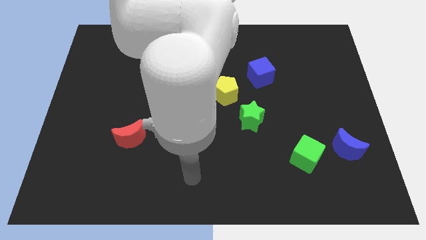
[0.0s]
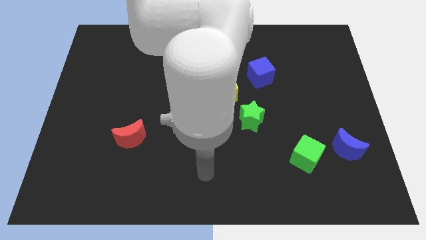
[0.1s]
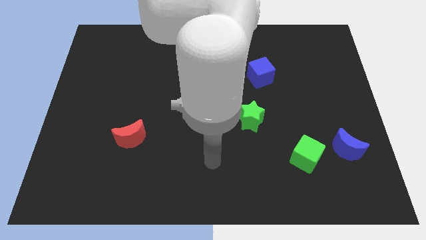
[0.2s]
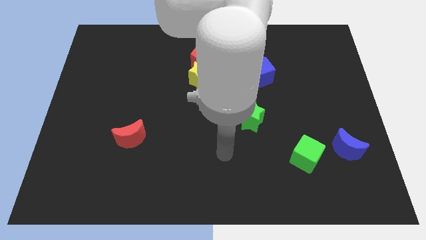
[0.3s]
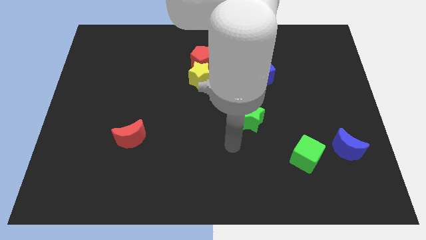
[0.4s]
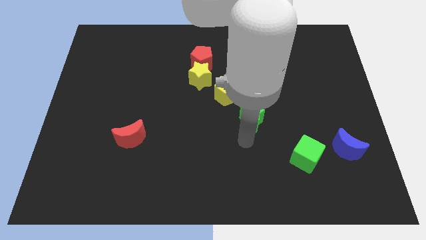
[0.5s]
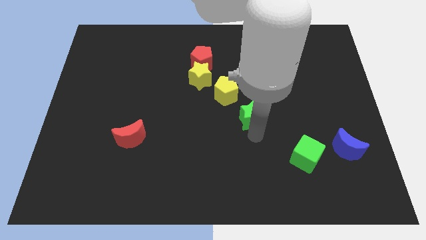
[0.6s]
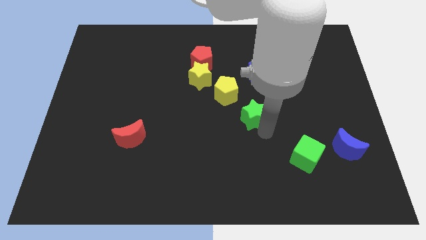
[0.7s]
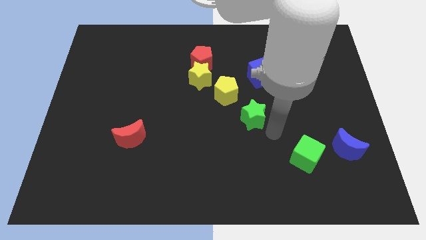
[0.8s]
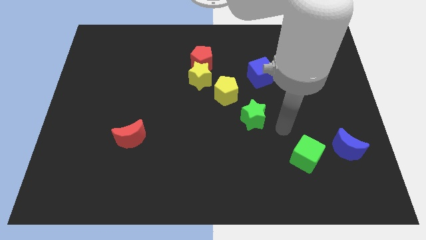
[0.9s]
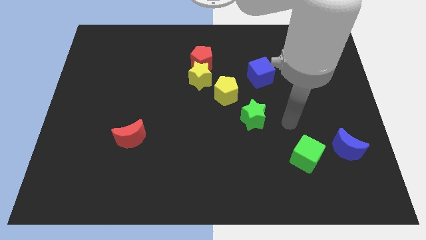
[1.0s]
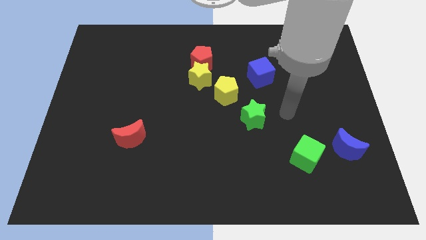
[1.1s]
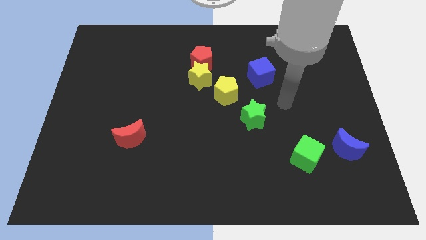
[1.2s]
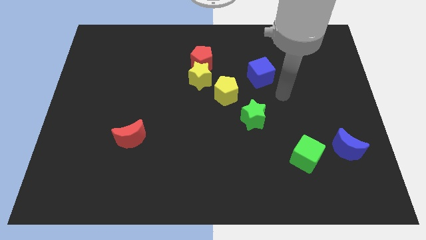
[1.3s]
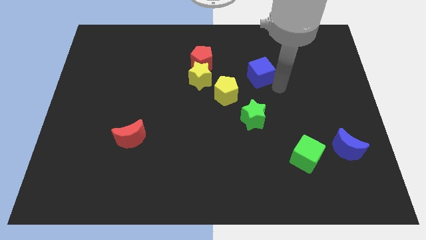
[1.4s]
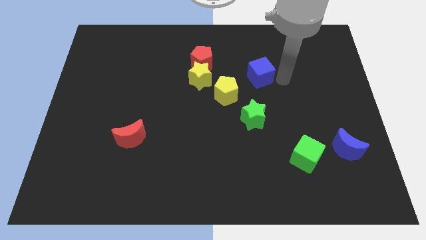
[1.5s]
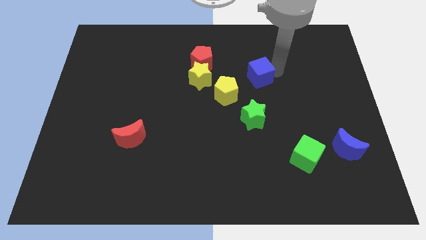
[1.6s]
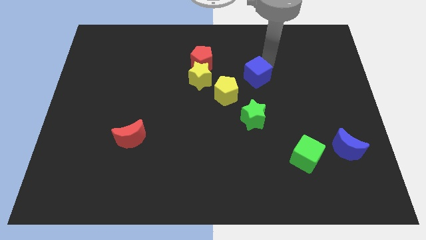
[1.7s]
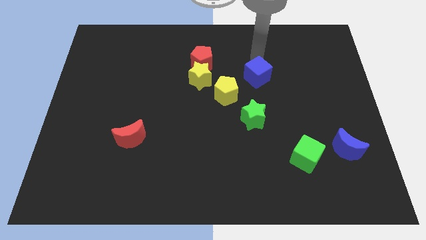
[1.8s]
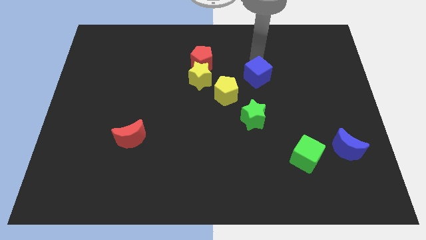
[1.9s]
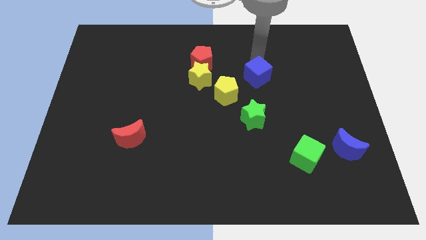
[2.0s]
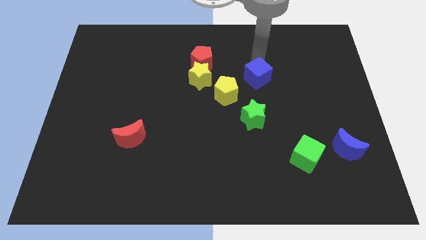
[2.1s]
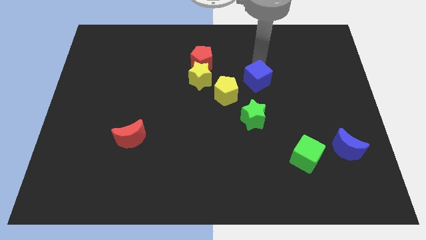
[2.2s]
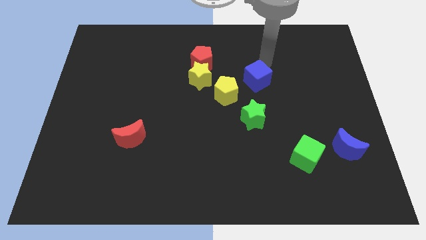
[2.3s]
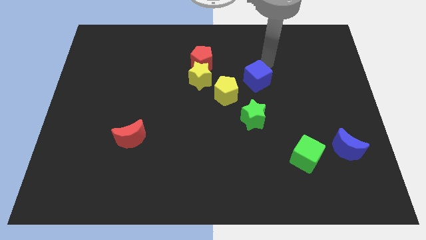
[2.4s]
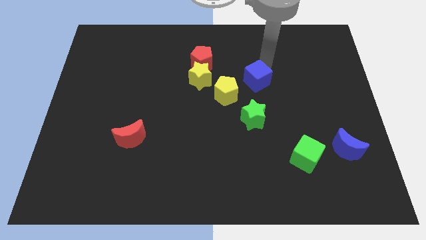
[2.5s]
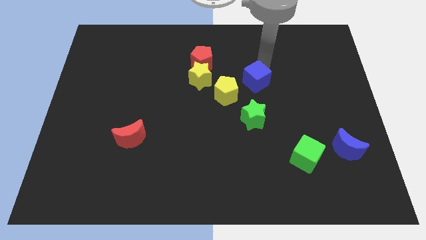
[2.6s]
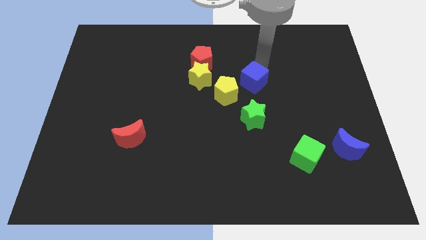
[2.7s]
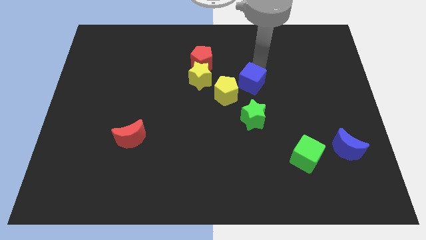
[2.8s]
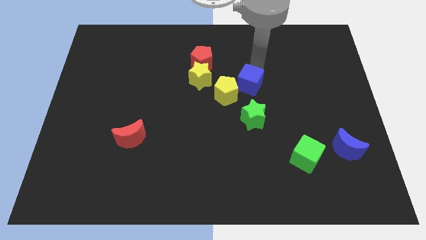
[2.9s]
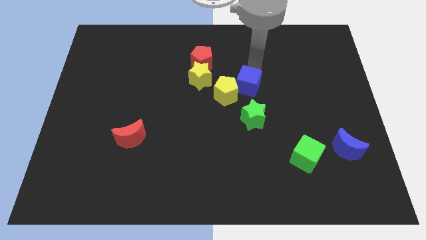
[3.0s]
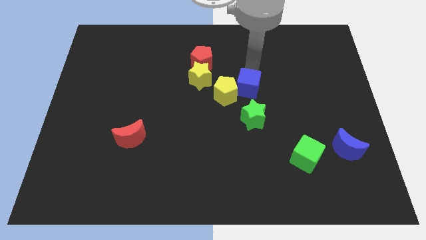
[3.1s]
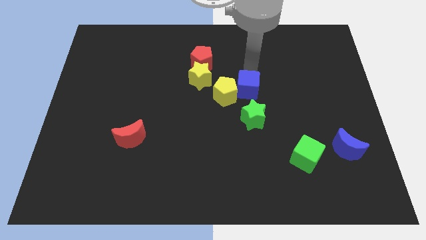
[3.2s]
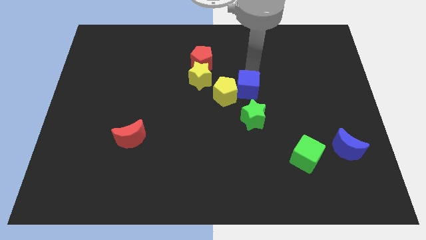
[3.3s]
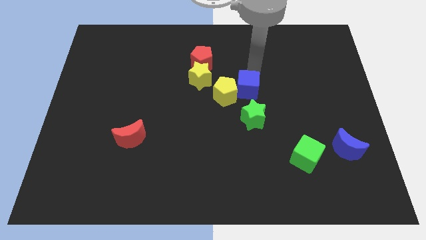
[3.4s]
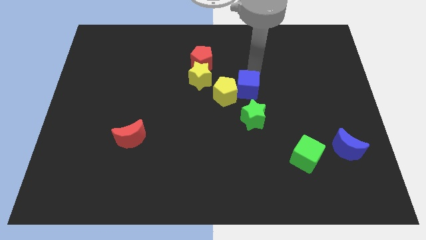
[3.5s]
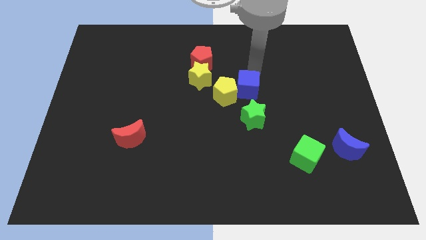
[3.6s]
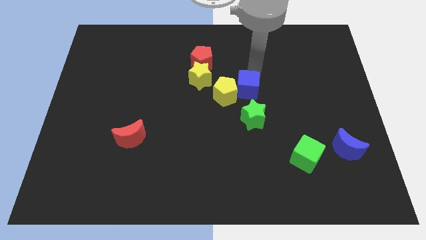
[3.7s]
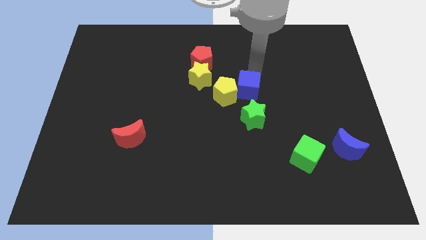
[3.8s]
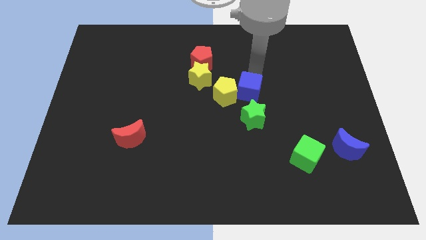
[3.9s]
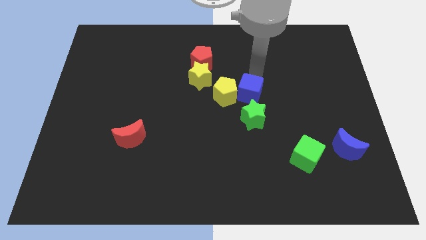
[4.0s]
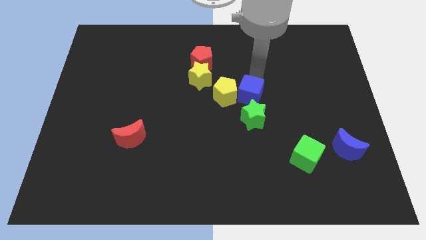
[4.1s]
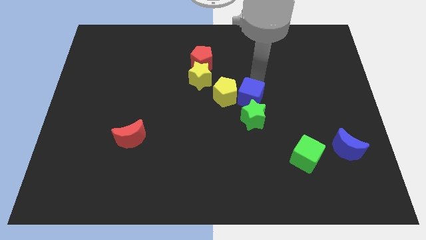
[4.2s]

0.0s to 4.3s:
slightly push the blue cube diagonally downwards and to the left

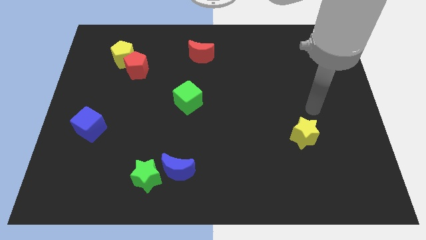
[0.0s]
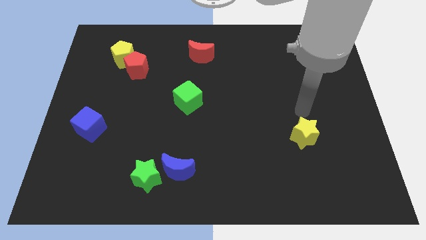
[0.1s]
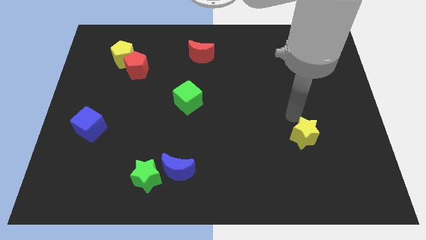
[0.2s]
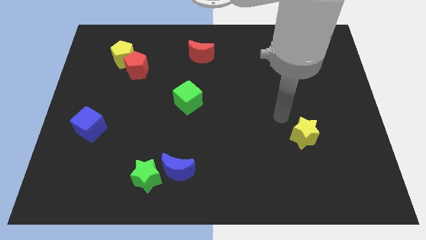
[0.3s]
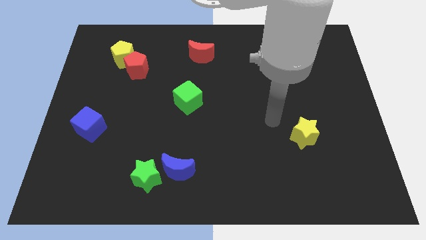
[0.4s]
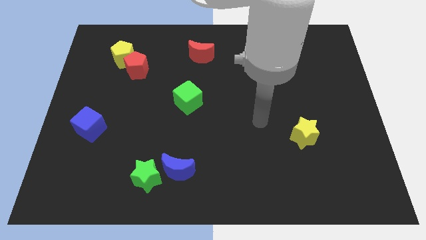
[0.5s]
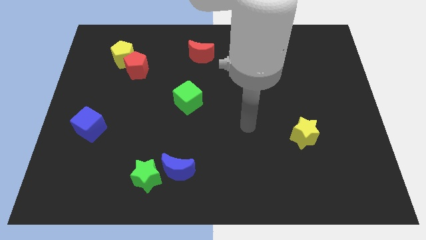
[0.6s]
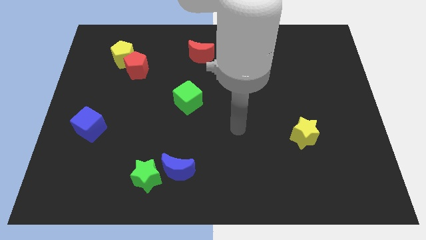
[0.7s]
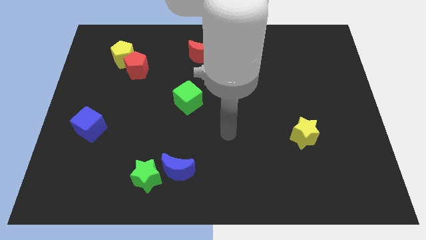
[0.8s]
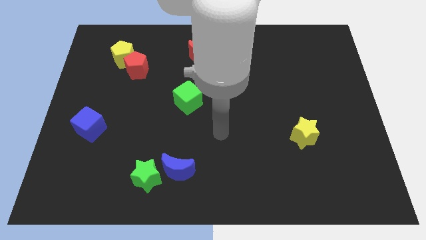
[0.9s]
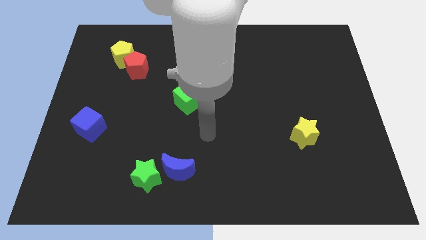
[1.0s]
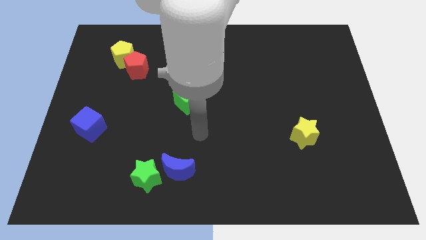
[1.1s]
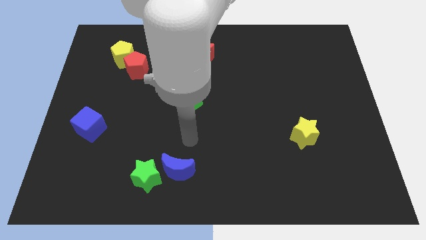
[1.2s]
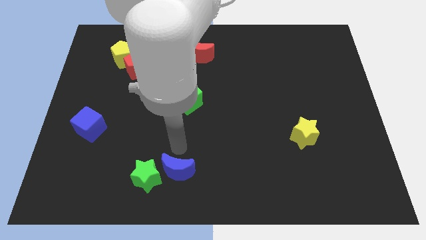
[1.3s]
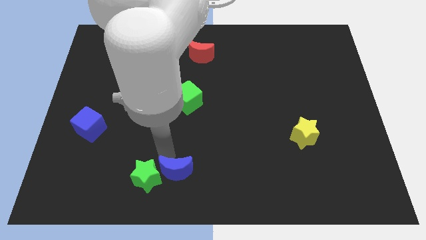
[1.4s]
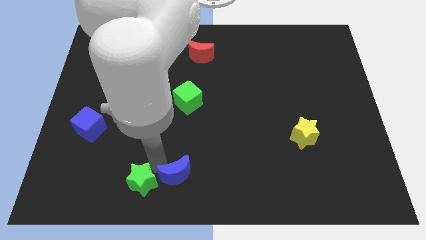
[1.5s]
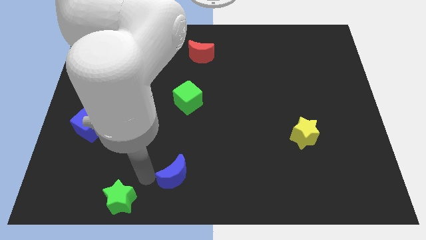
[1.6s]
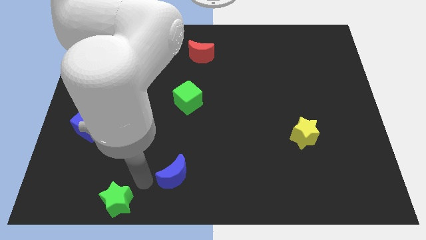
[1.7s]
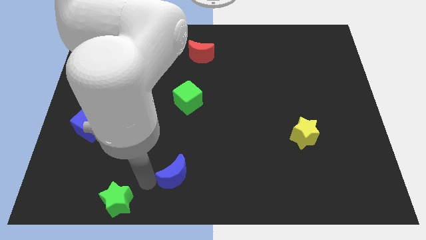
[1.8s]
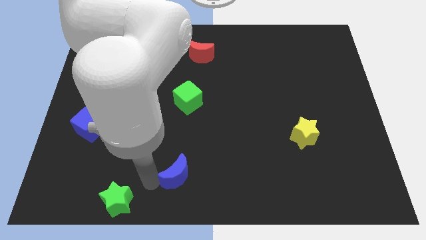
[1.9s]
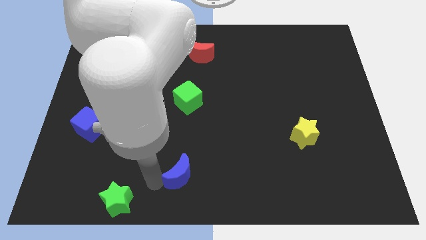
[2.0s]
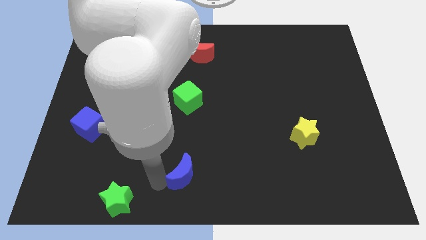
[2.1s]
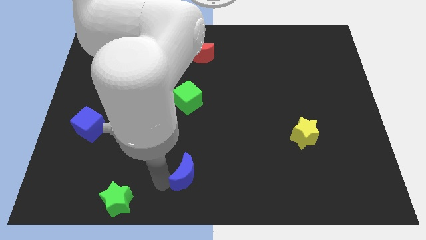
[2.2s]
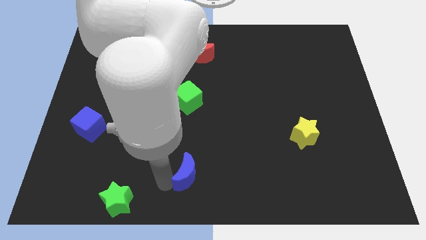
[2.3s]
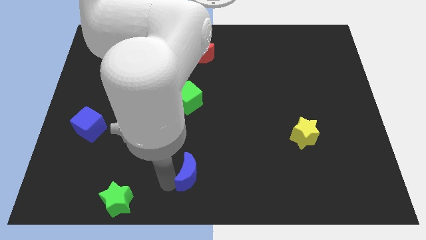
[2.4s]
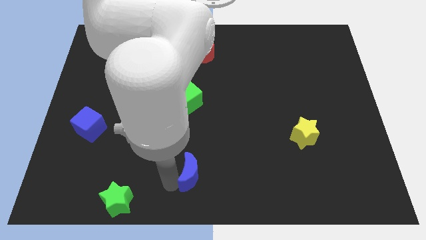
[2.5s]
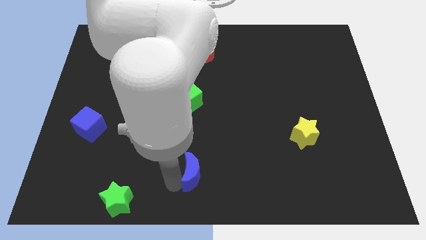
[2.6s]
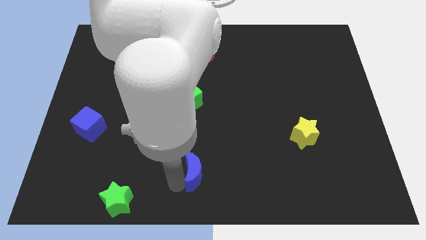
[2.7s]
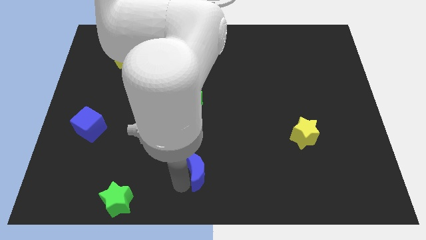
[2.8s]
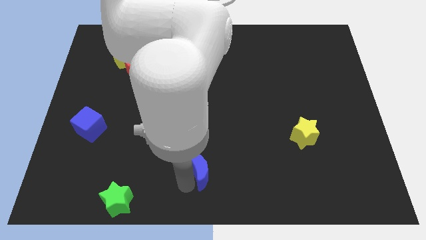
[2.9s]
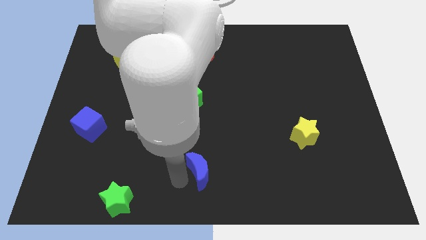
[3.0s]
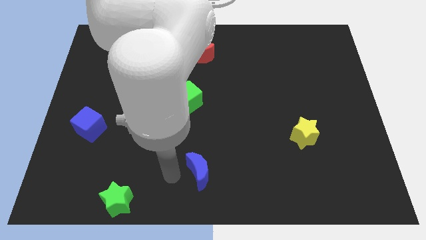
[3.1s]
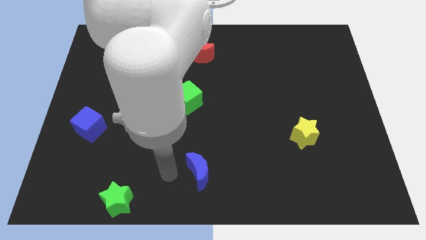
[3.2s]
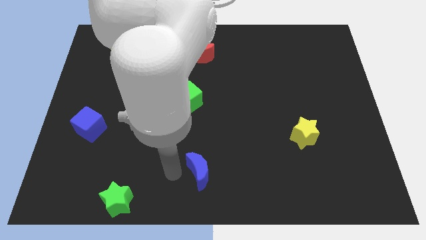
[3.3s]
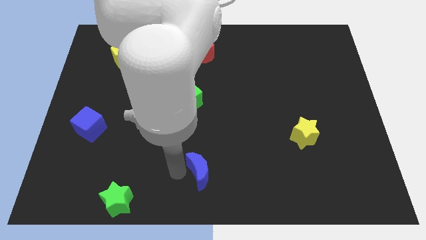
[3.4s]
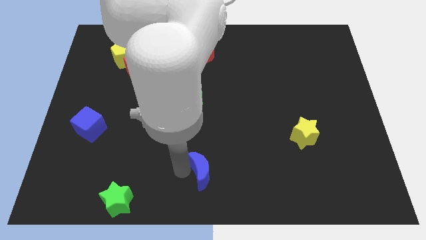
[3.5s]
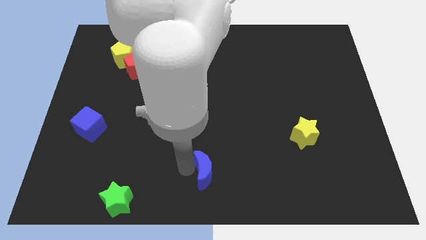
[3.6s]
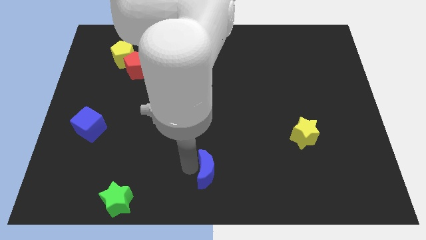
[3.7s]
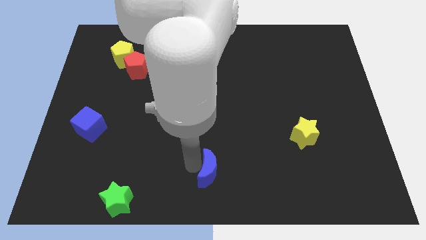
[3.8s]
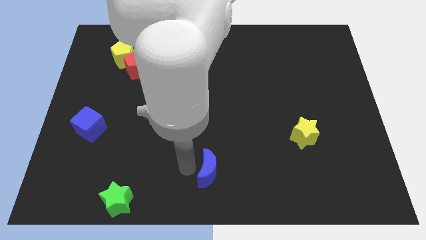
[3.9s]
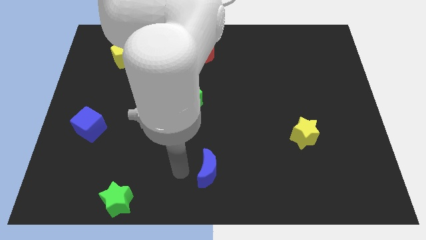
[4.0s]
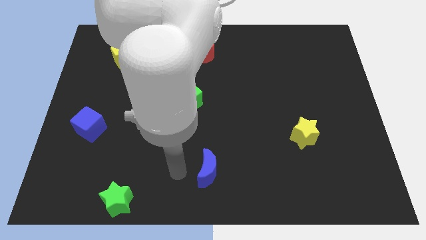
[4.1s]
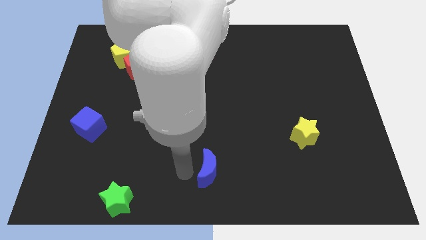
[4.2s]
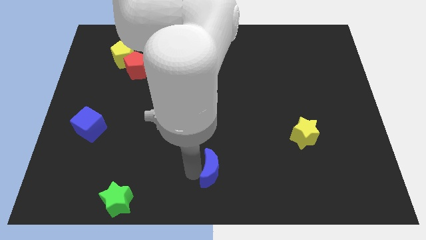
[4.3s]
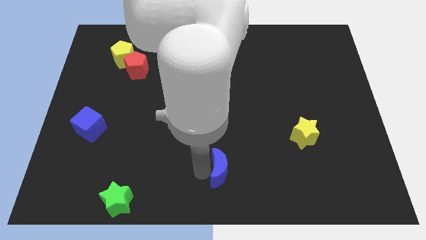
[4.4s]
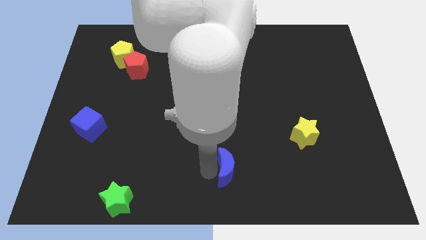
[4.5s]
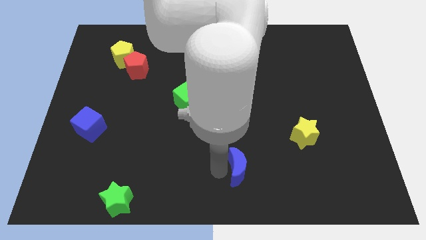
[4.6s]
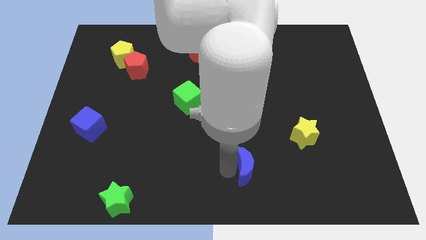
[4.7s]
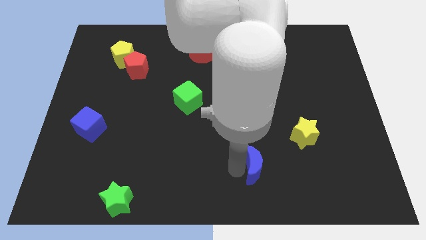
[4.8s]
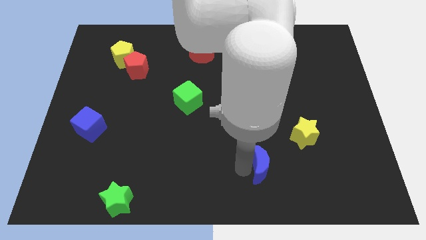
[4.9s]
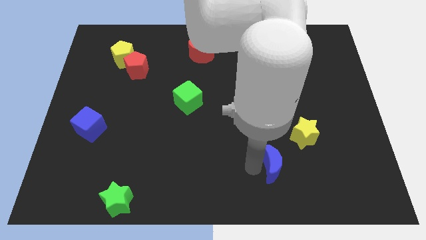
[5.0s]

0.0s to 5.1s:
push the blue moon to the right
